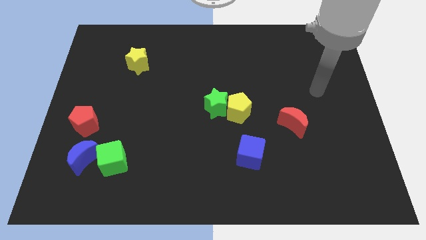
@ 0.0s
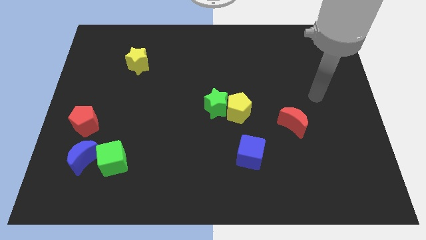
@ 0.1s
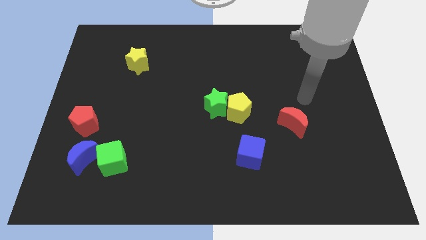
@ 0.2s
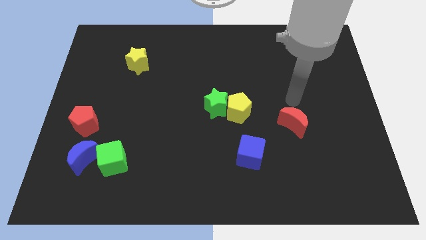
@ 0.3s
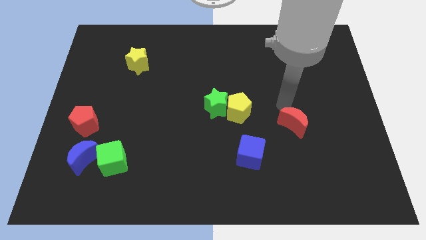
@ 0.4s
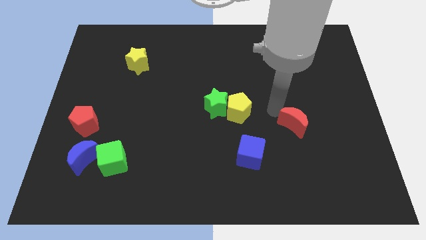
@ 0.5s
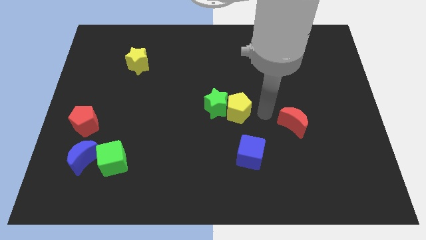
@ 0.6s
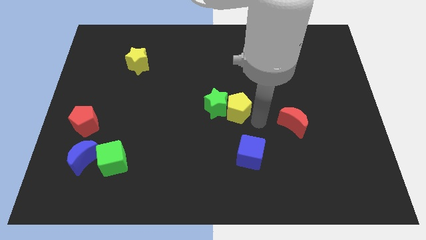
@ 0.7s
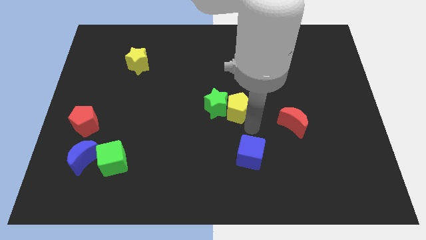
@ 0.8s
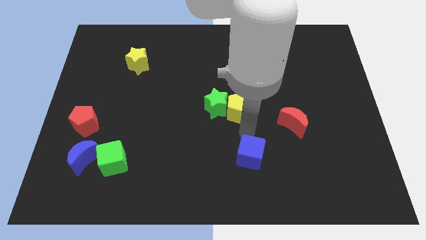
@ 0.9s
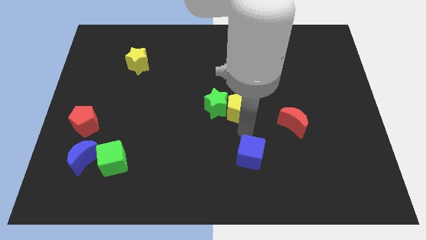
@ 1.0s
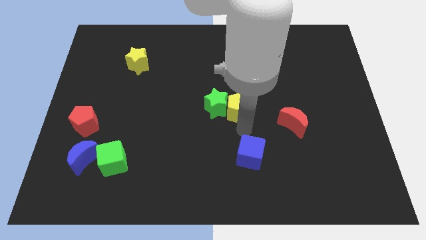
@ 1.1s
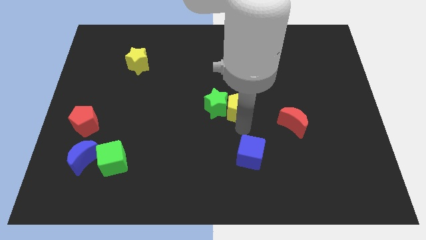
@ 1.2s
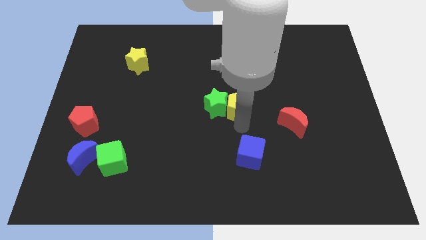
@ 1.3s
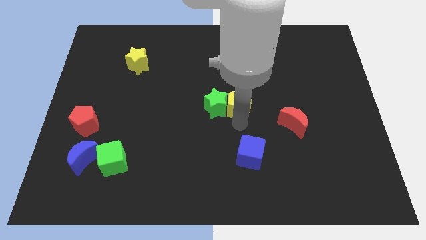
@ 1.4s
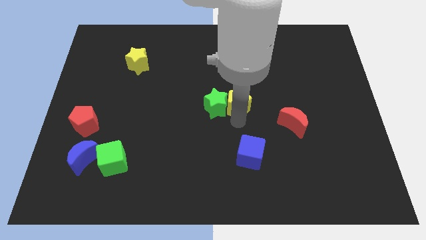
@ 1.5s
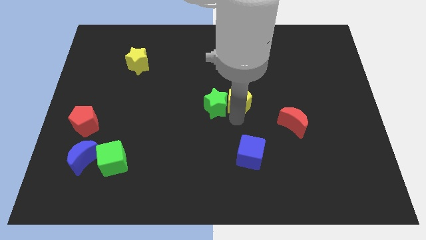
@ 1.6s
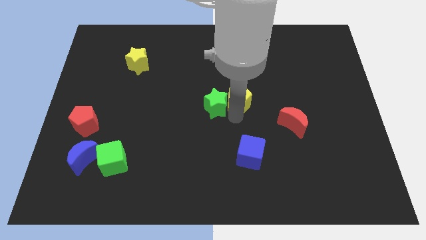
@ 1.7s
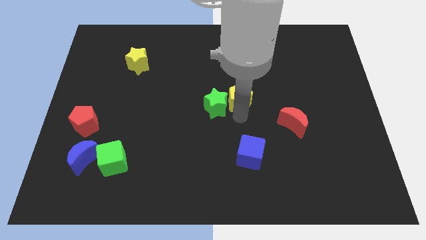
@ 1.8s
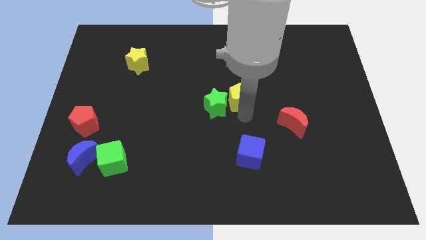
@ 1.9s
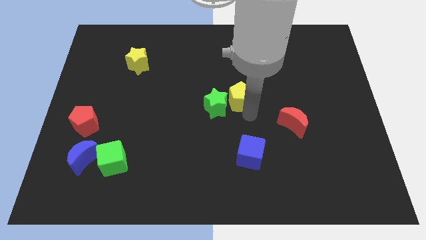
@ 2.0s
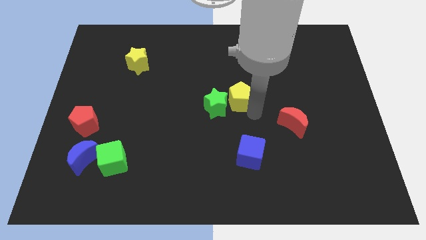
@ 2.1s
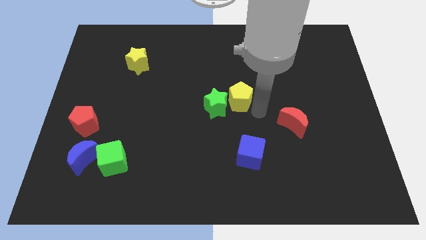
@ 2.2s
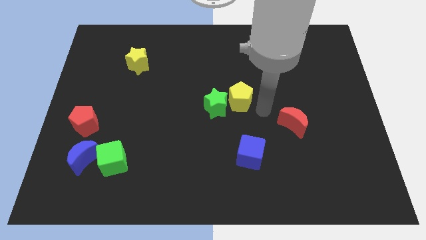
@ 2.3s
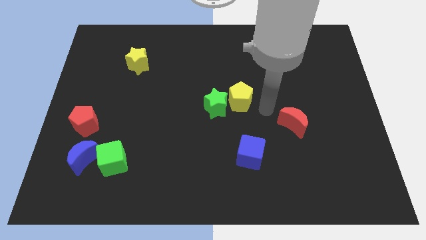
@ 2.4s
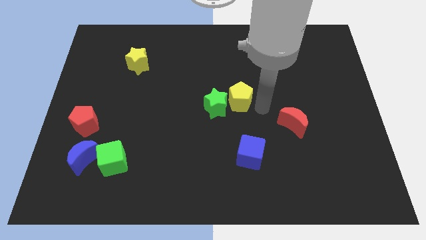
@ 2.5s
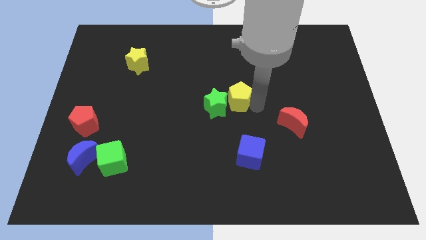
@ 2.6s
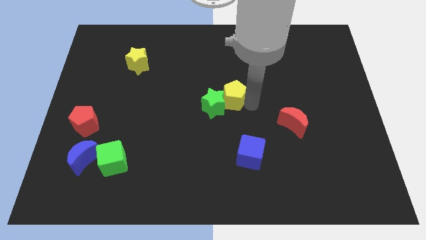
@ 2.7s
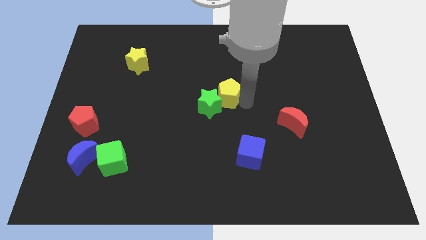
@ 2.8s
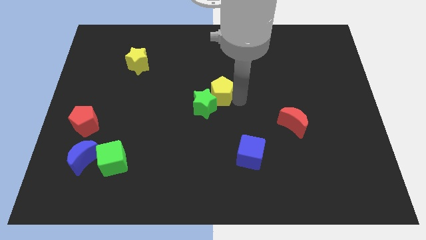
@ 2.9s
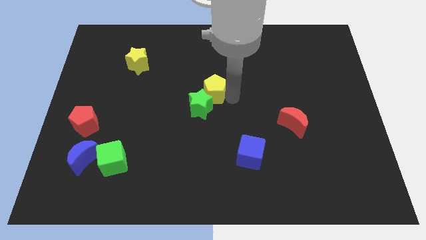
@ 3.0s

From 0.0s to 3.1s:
slide the yellow pentagon slightly diagonally up and left

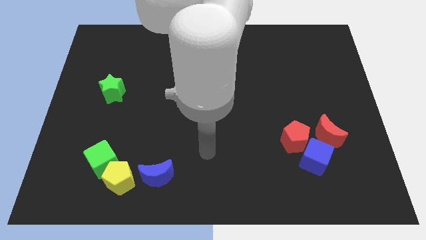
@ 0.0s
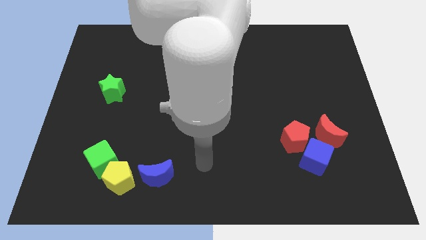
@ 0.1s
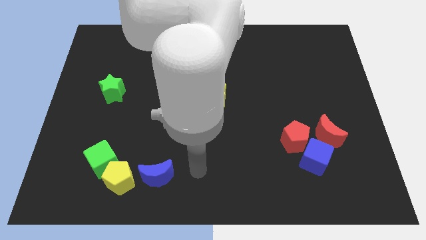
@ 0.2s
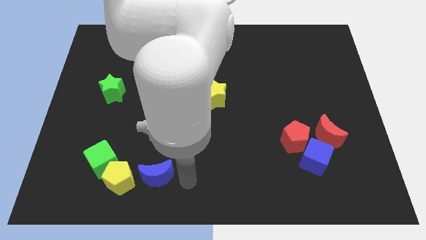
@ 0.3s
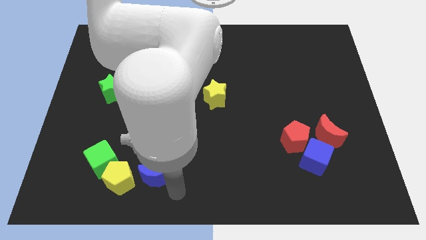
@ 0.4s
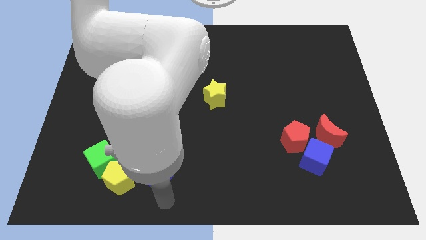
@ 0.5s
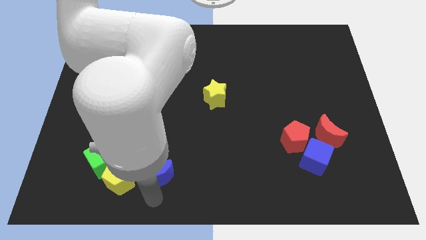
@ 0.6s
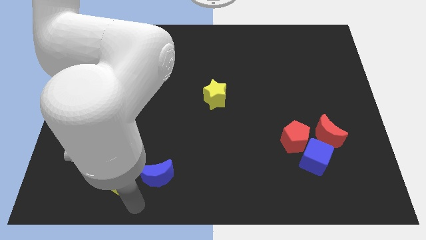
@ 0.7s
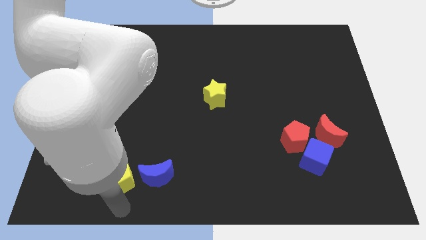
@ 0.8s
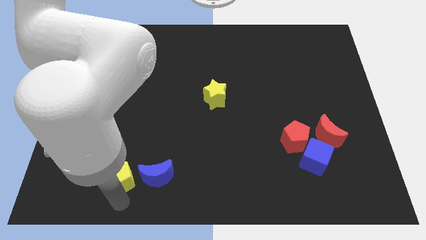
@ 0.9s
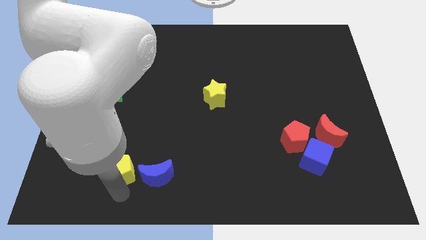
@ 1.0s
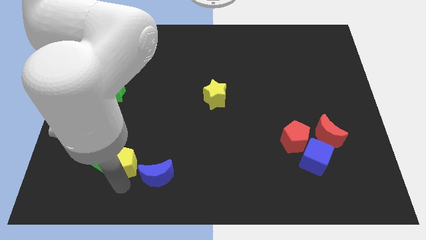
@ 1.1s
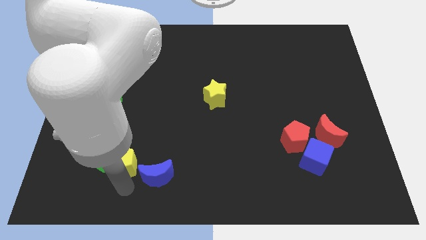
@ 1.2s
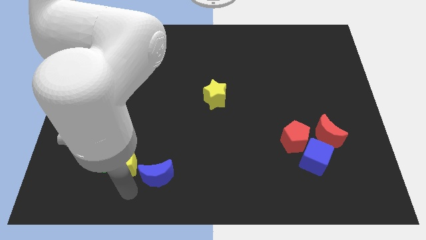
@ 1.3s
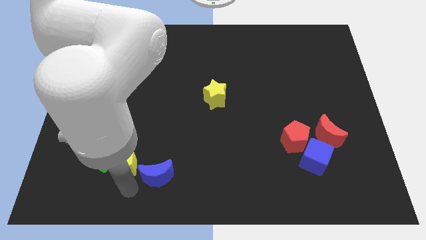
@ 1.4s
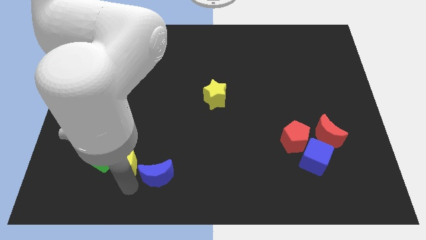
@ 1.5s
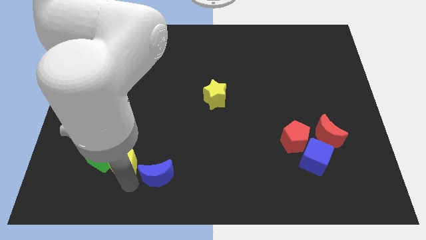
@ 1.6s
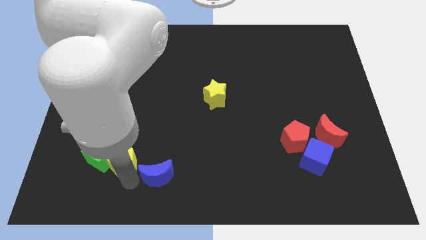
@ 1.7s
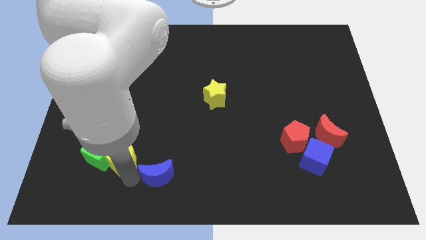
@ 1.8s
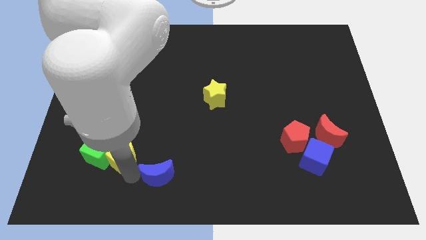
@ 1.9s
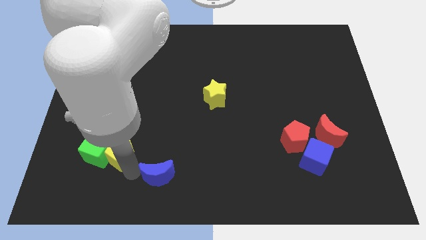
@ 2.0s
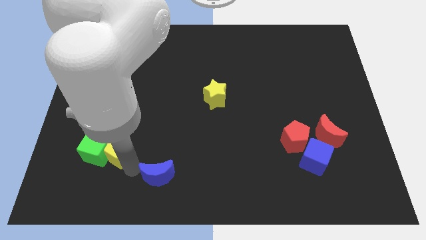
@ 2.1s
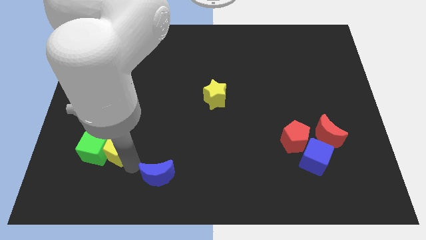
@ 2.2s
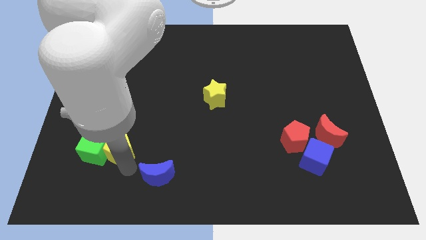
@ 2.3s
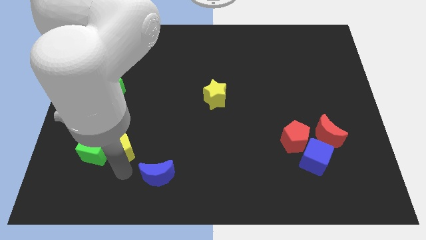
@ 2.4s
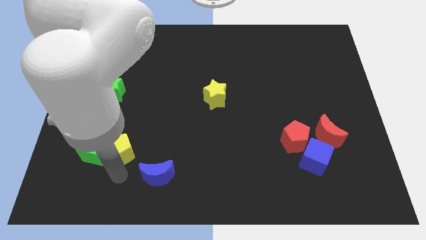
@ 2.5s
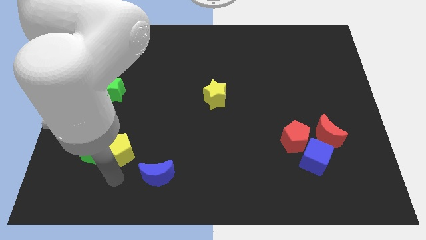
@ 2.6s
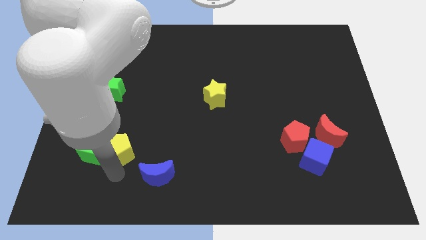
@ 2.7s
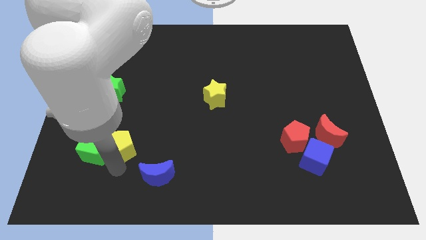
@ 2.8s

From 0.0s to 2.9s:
push the yellow pentagon somewhat up

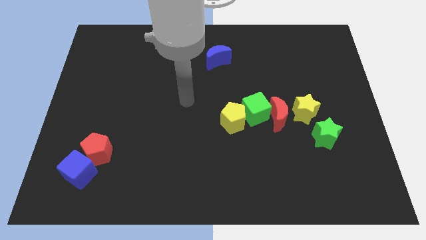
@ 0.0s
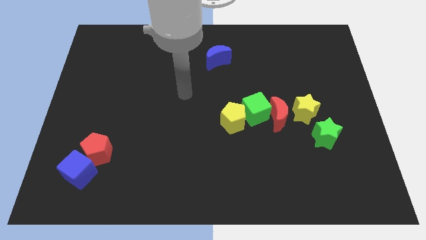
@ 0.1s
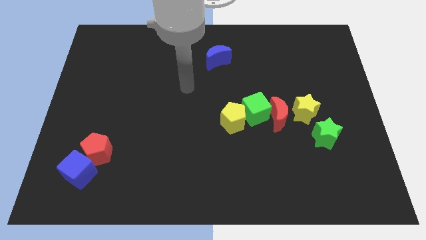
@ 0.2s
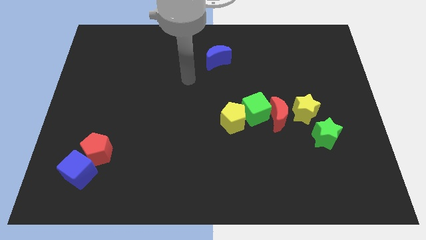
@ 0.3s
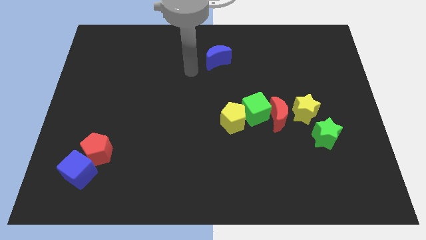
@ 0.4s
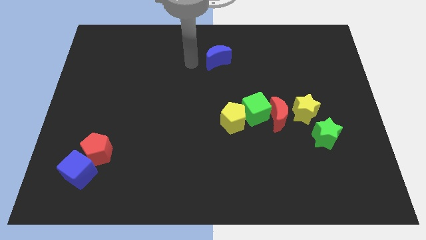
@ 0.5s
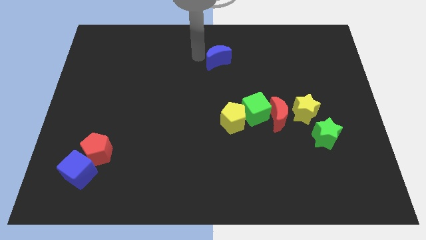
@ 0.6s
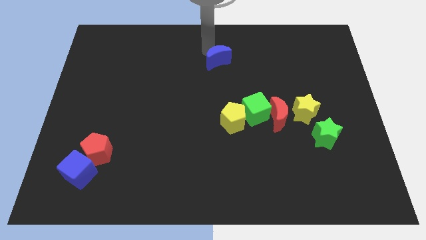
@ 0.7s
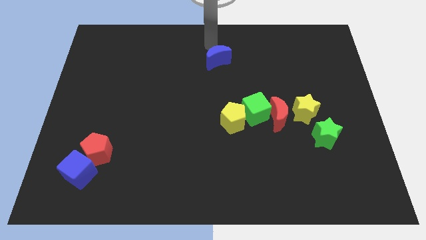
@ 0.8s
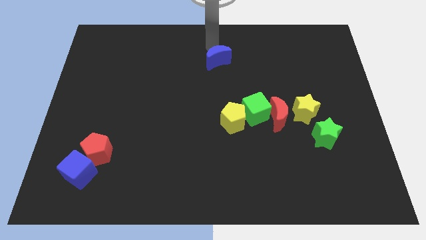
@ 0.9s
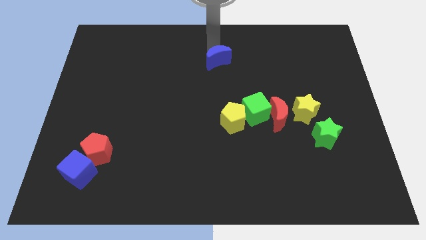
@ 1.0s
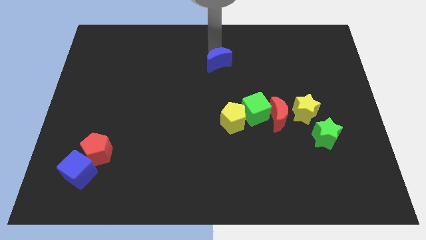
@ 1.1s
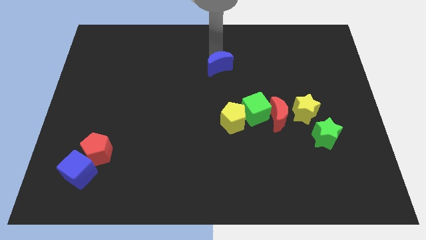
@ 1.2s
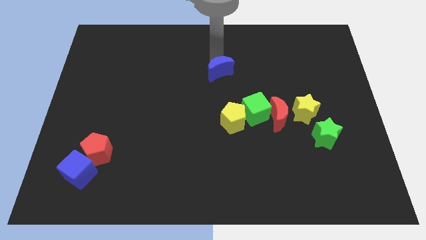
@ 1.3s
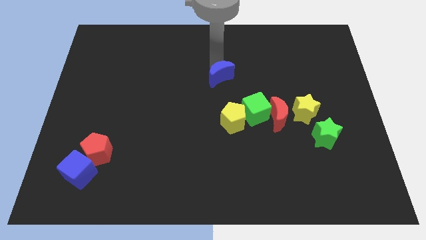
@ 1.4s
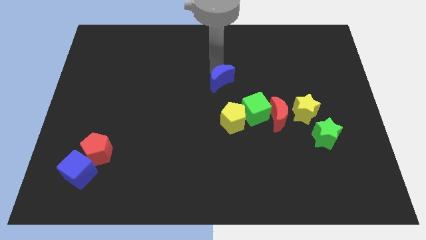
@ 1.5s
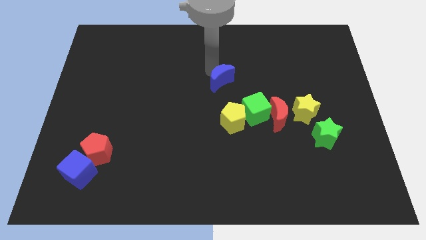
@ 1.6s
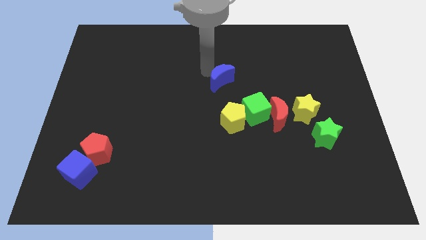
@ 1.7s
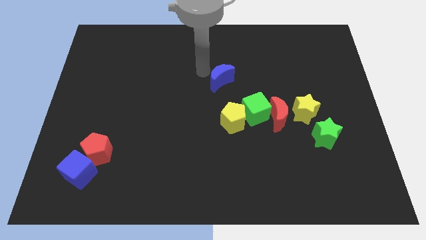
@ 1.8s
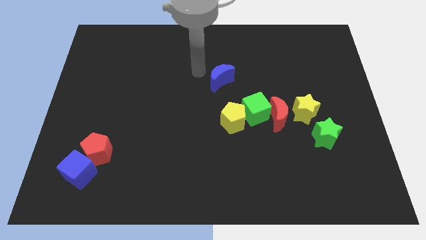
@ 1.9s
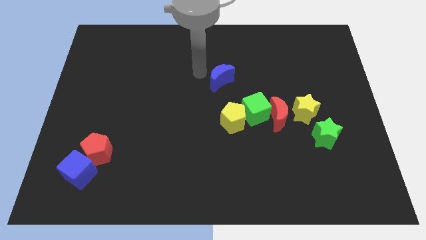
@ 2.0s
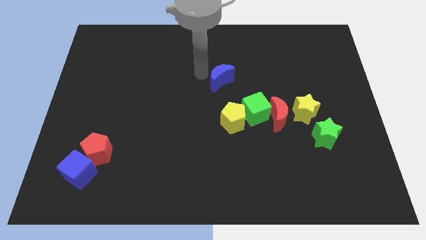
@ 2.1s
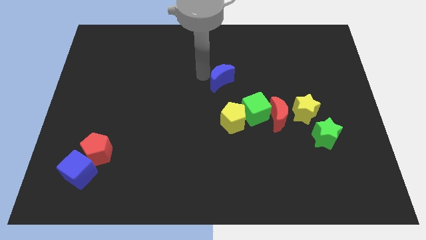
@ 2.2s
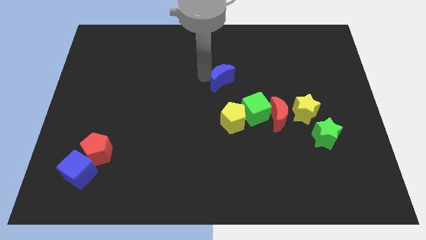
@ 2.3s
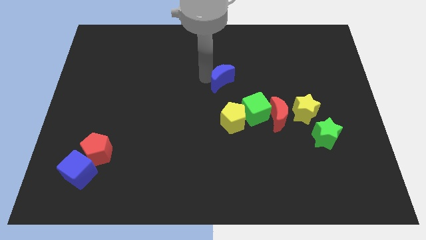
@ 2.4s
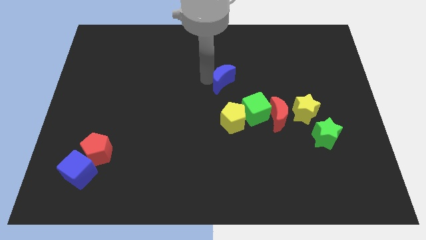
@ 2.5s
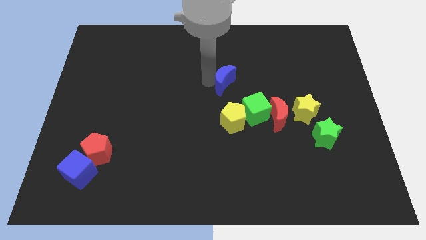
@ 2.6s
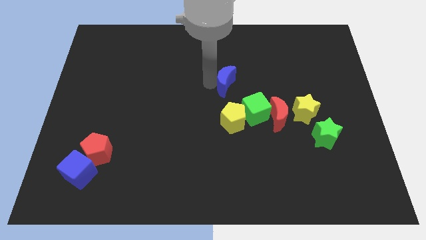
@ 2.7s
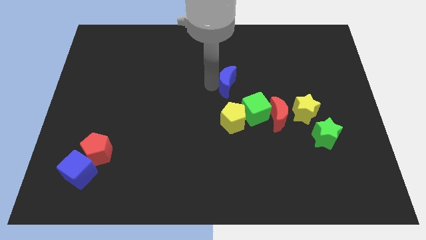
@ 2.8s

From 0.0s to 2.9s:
push the blue moon down and then to the right a bit
